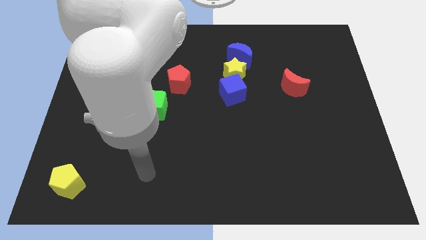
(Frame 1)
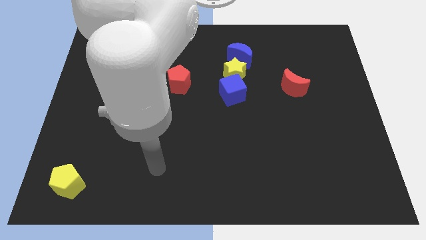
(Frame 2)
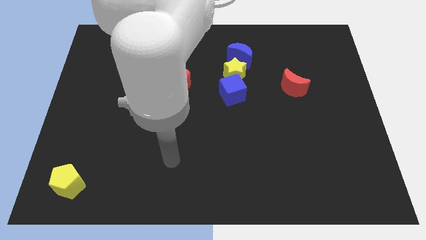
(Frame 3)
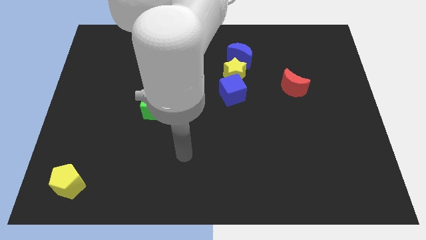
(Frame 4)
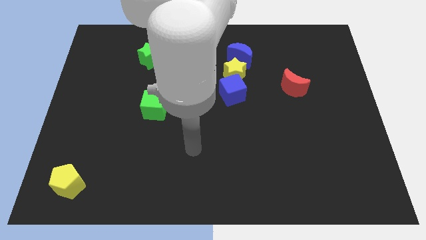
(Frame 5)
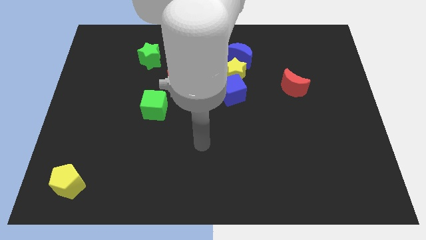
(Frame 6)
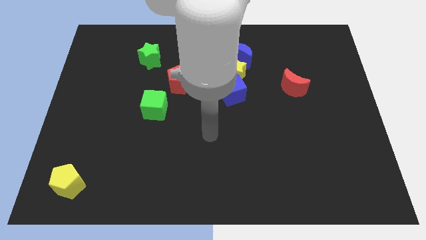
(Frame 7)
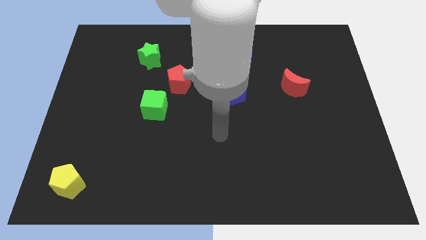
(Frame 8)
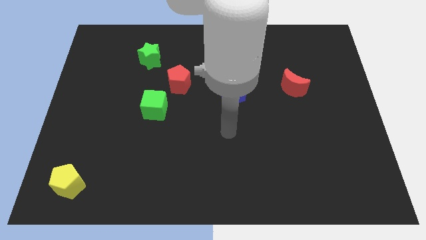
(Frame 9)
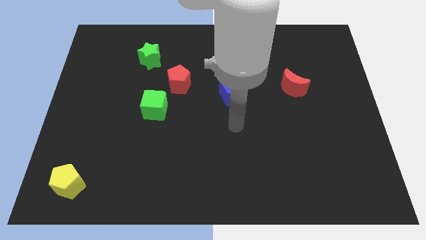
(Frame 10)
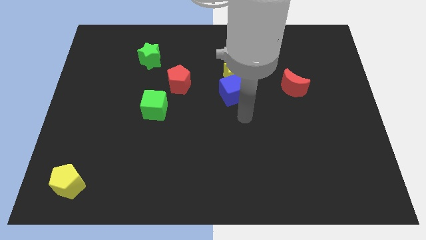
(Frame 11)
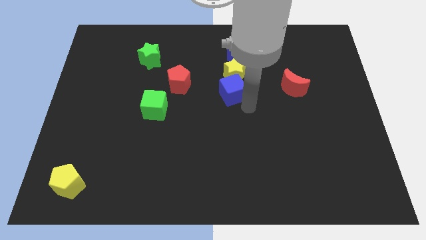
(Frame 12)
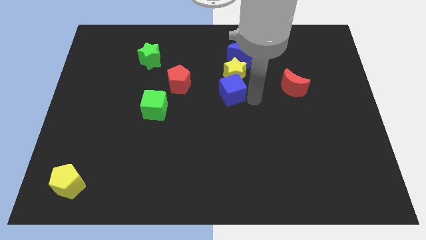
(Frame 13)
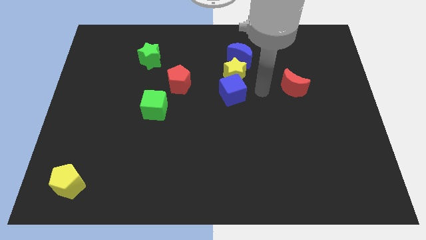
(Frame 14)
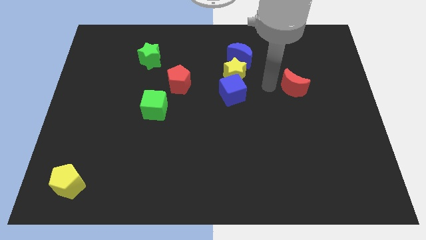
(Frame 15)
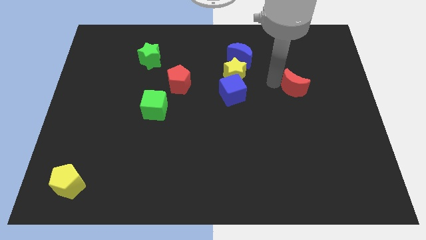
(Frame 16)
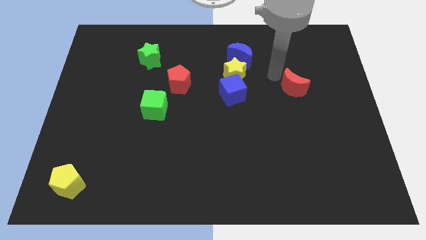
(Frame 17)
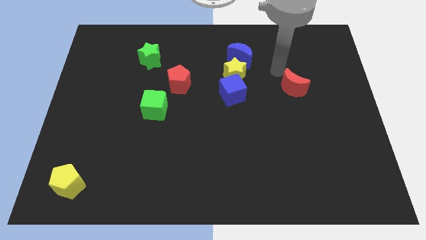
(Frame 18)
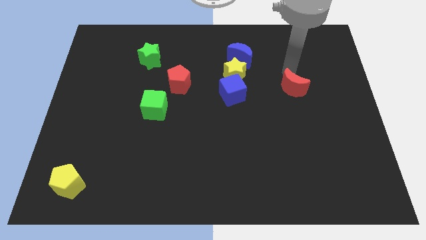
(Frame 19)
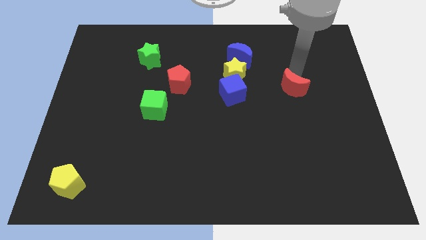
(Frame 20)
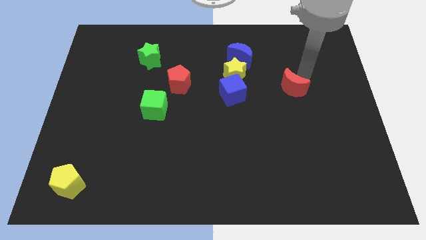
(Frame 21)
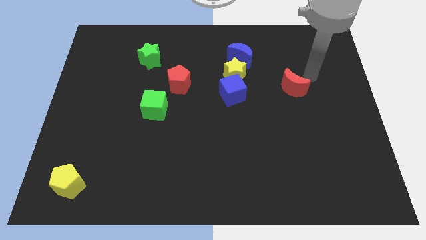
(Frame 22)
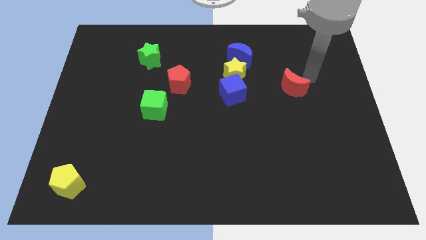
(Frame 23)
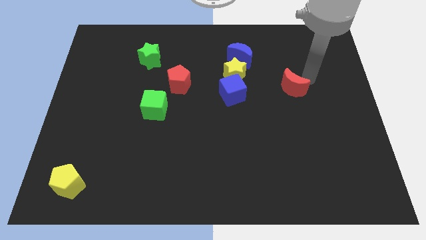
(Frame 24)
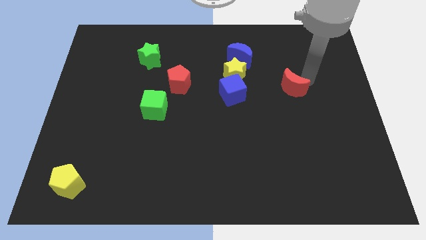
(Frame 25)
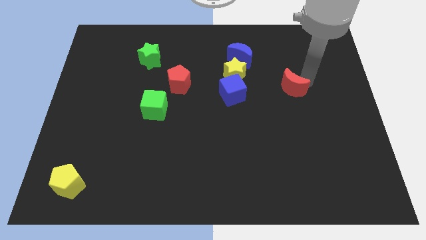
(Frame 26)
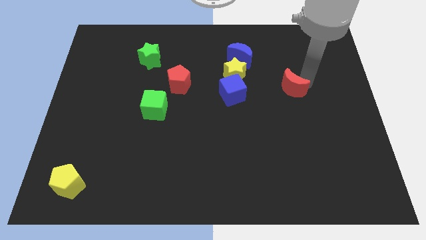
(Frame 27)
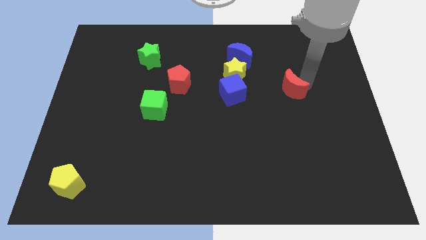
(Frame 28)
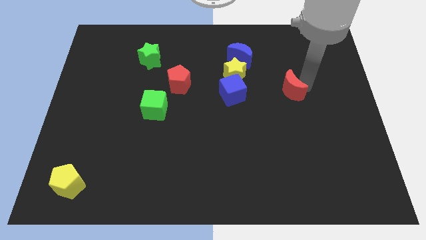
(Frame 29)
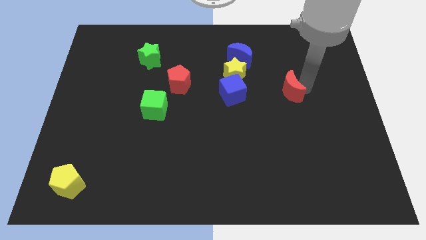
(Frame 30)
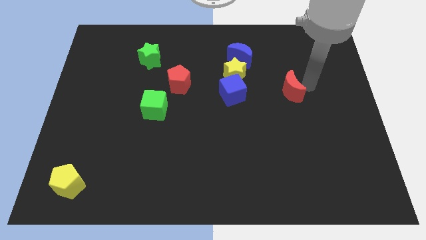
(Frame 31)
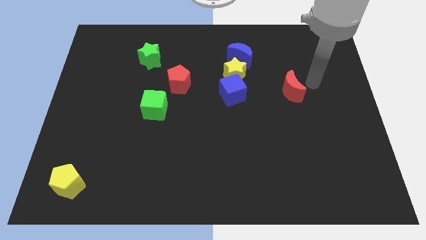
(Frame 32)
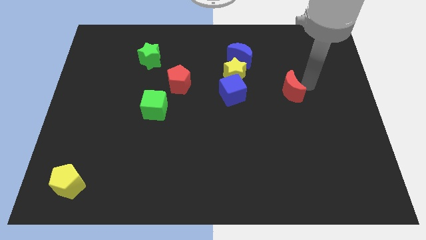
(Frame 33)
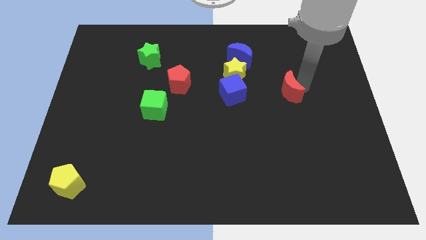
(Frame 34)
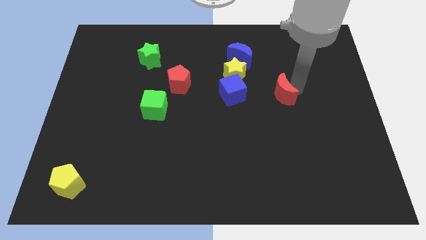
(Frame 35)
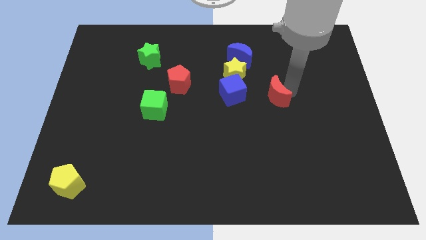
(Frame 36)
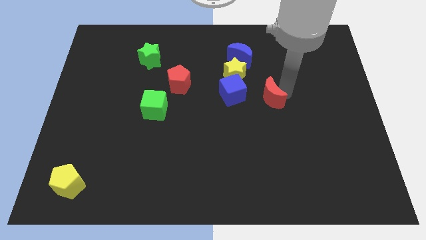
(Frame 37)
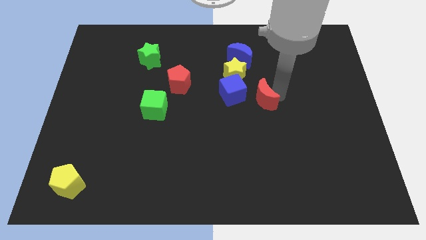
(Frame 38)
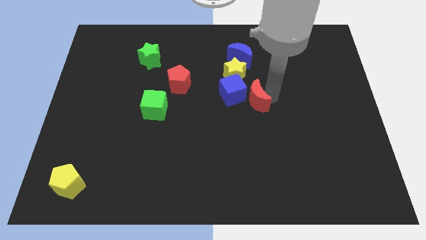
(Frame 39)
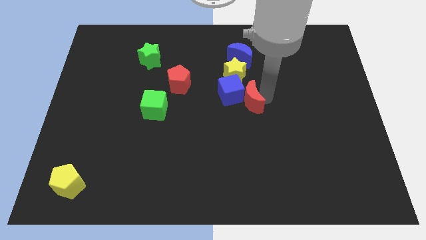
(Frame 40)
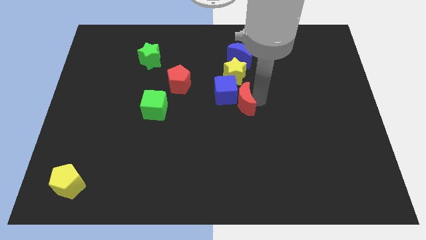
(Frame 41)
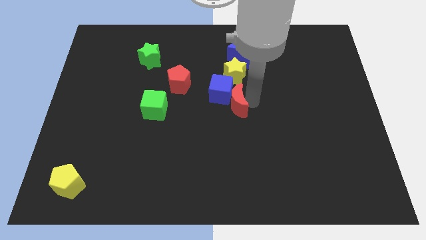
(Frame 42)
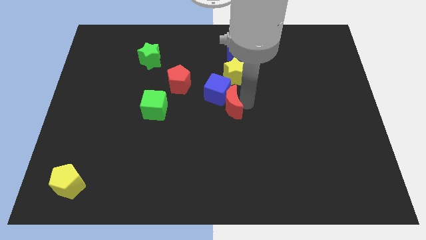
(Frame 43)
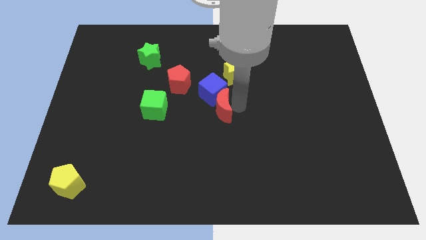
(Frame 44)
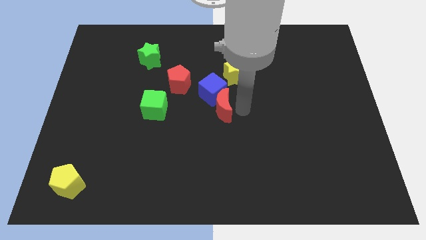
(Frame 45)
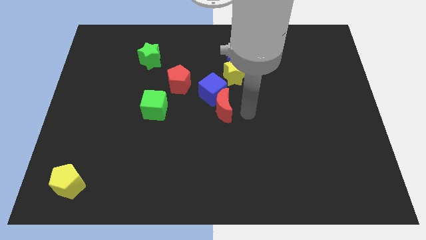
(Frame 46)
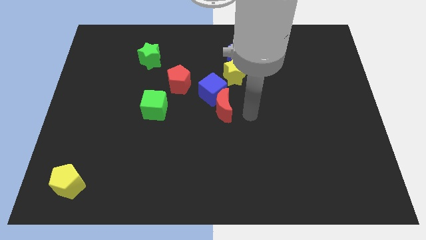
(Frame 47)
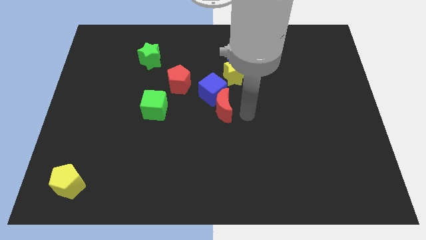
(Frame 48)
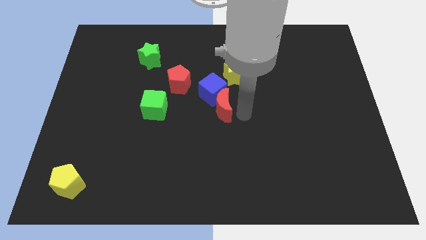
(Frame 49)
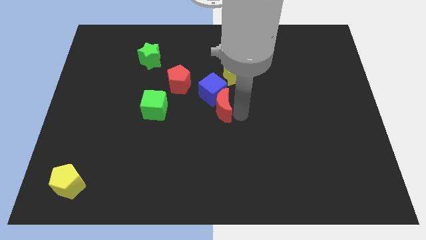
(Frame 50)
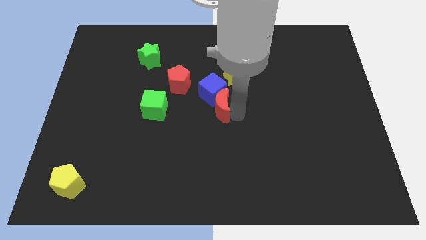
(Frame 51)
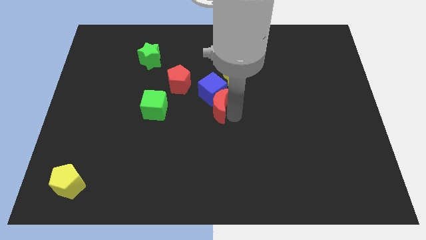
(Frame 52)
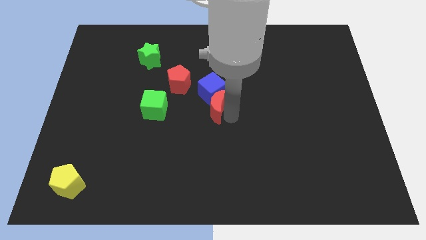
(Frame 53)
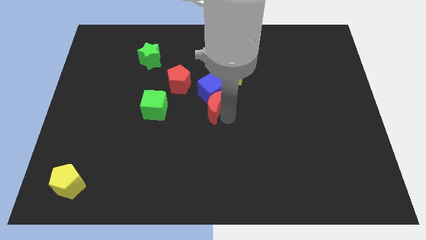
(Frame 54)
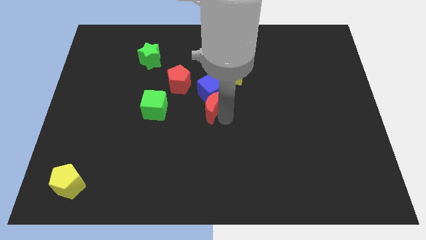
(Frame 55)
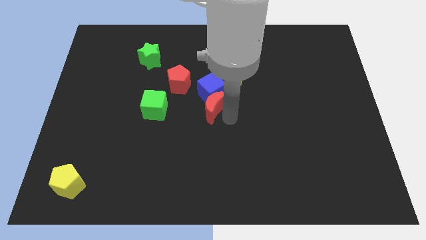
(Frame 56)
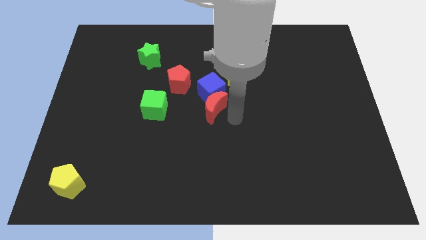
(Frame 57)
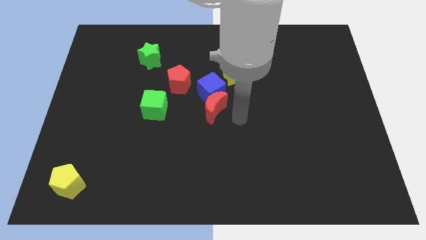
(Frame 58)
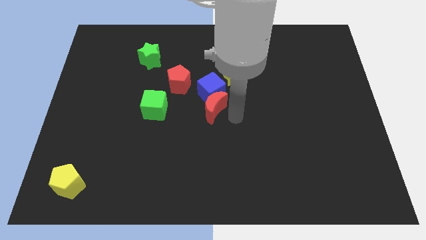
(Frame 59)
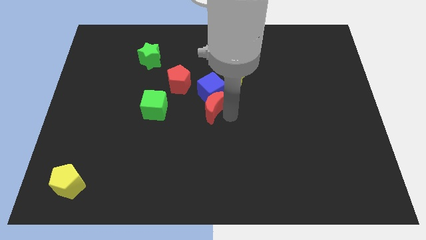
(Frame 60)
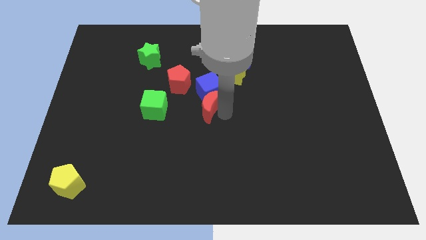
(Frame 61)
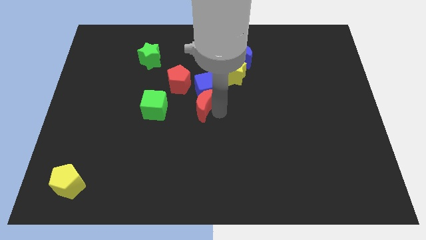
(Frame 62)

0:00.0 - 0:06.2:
push the red moon left

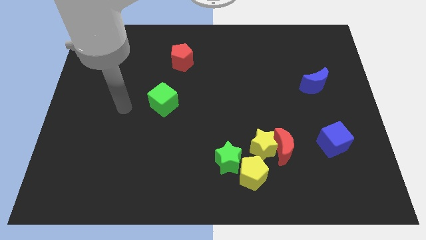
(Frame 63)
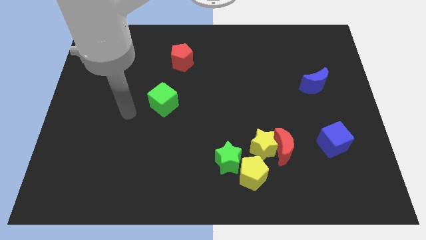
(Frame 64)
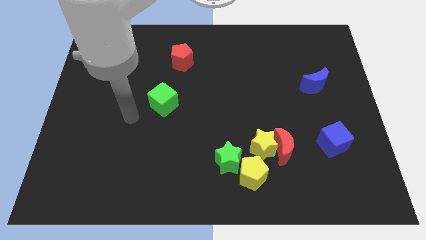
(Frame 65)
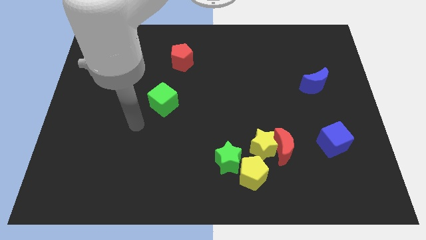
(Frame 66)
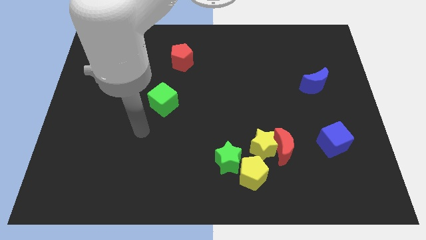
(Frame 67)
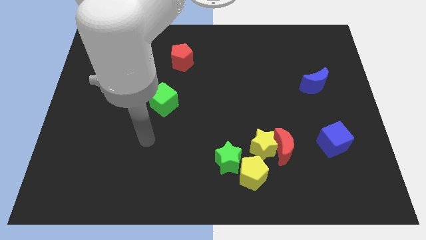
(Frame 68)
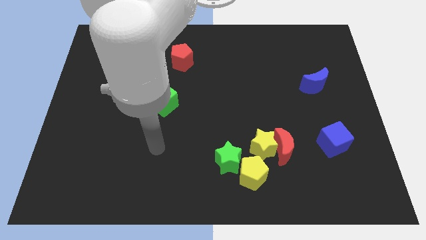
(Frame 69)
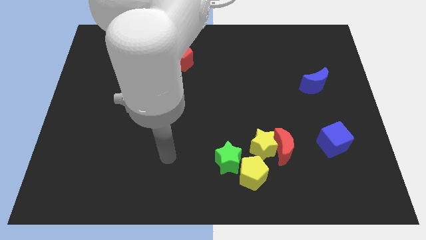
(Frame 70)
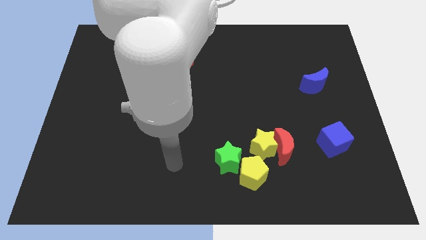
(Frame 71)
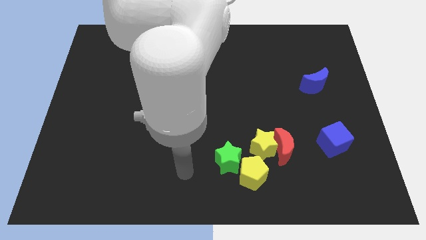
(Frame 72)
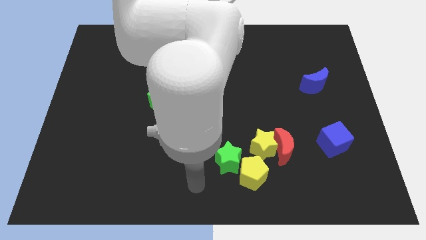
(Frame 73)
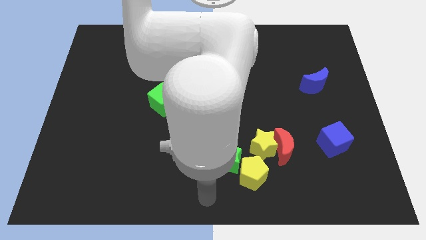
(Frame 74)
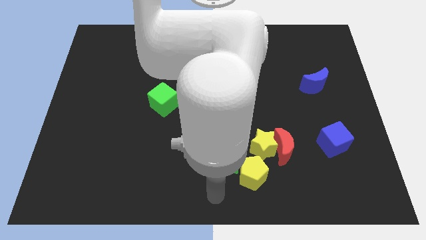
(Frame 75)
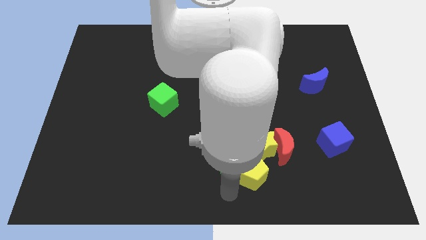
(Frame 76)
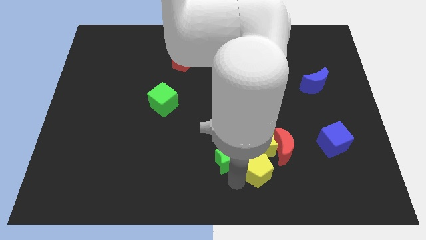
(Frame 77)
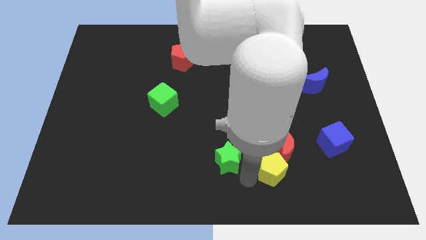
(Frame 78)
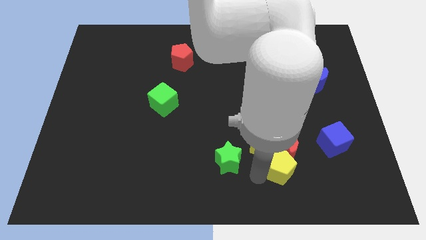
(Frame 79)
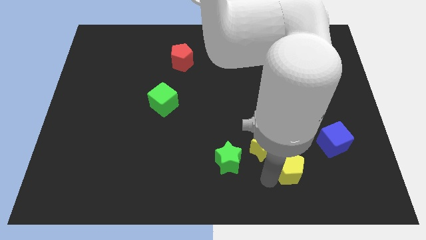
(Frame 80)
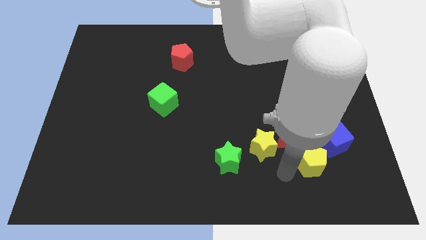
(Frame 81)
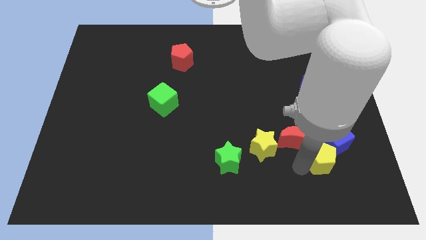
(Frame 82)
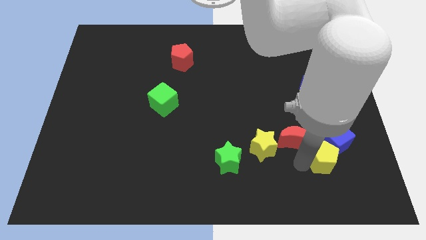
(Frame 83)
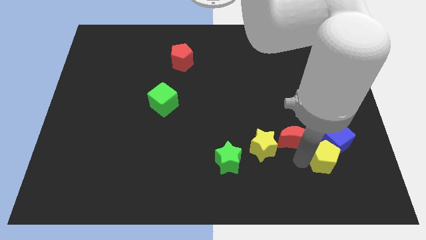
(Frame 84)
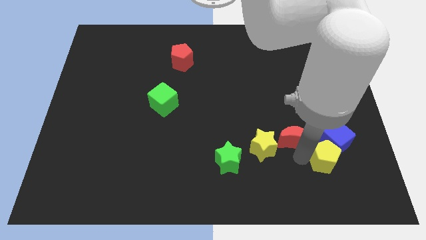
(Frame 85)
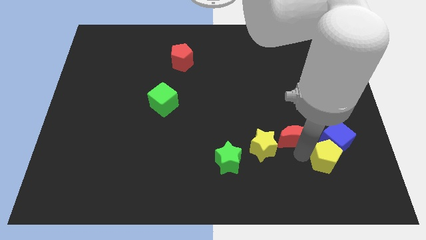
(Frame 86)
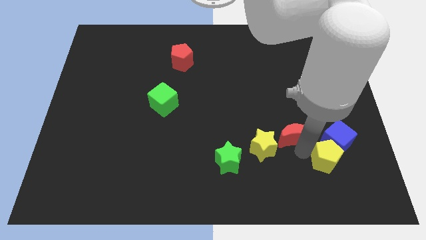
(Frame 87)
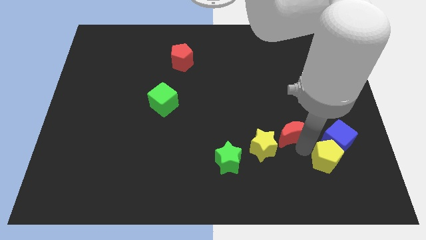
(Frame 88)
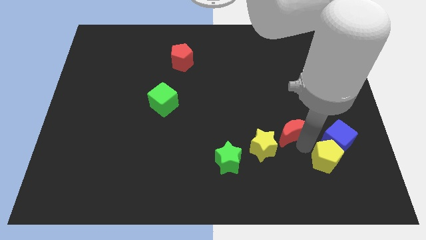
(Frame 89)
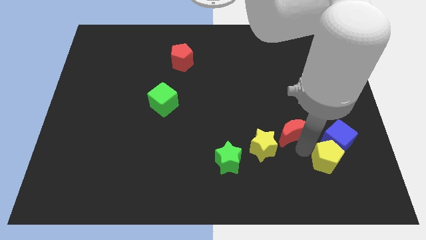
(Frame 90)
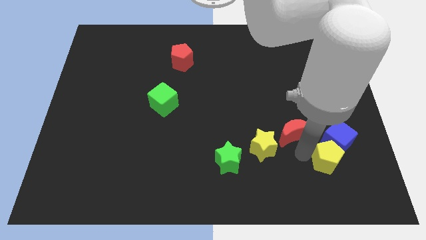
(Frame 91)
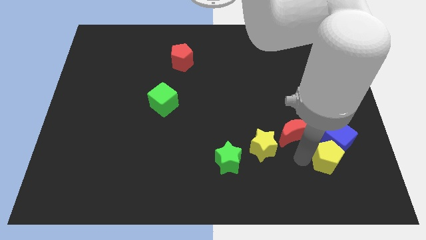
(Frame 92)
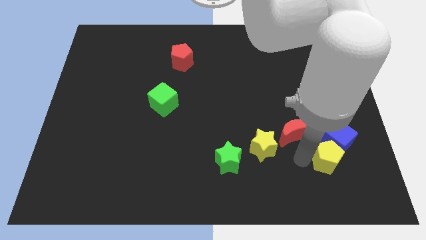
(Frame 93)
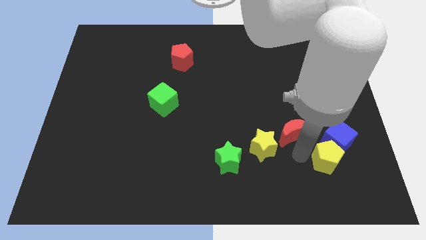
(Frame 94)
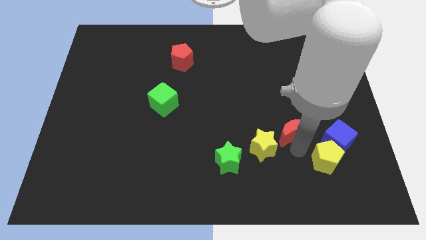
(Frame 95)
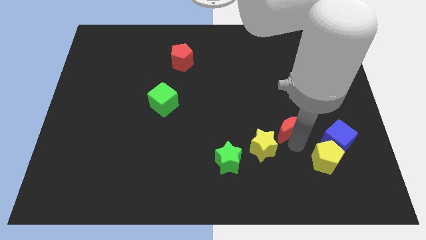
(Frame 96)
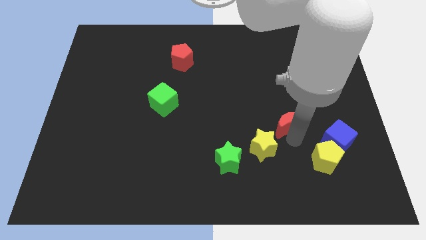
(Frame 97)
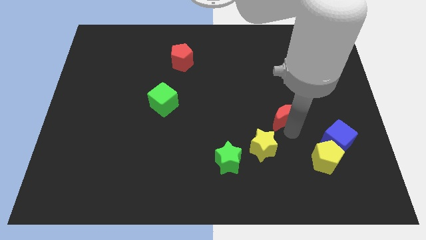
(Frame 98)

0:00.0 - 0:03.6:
move the red moon upwards a little
